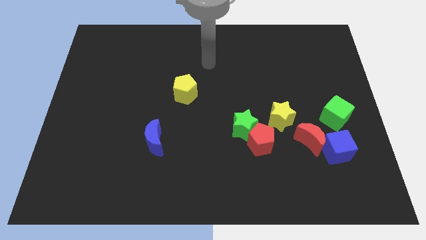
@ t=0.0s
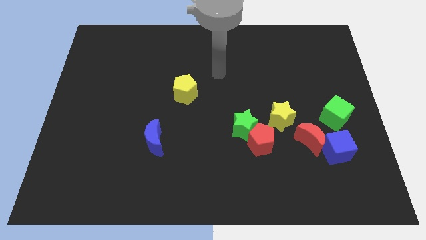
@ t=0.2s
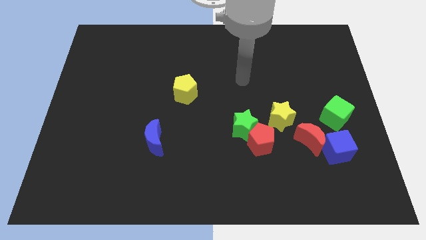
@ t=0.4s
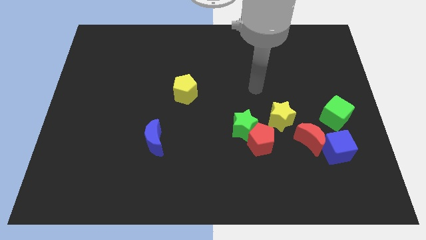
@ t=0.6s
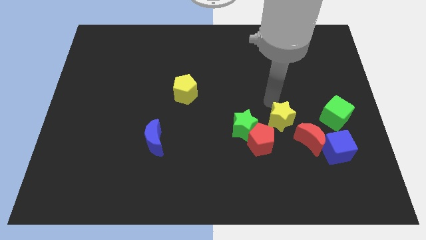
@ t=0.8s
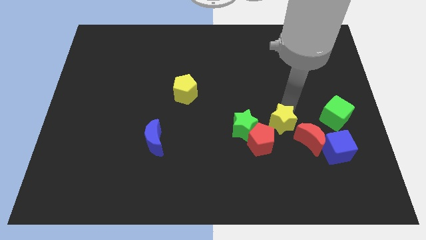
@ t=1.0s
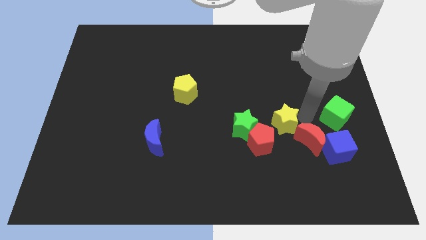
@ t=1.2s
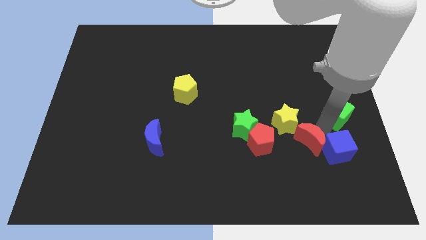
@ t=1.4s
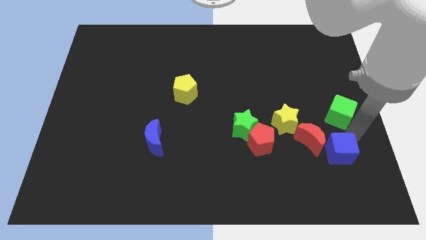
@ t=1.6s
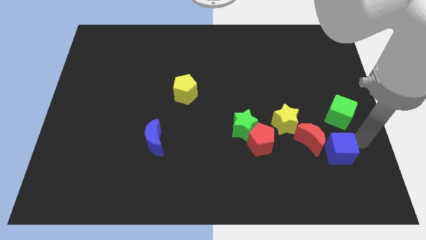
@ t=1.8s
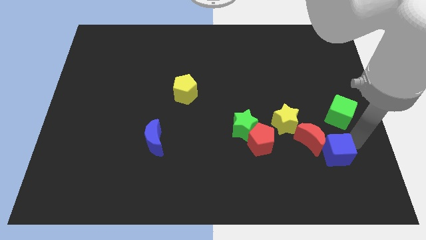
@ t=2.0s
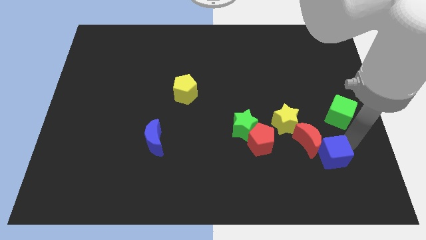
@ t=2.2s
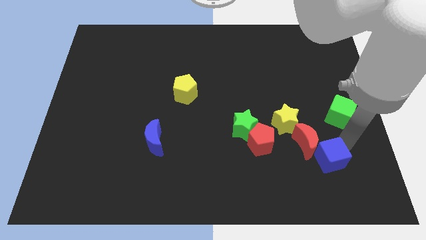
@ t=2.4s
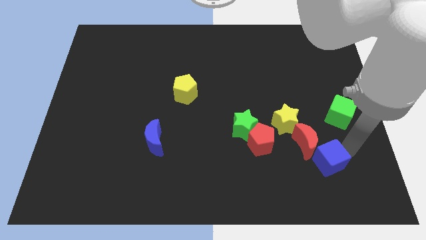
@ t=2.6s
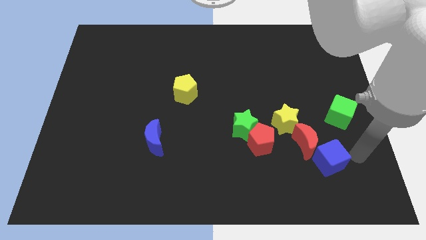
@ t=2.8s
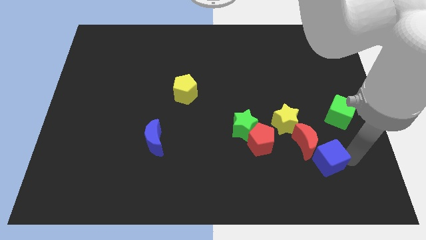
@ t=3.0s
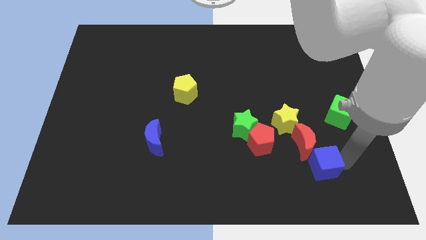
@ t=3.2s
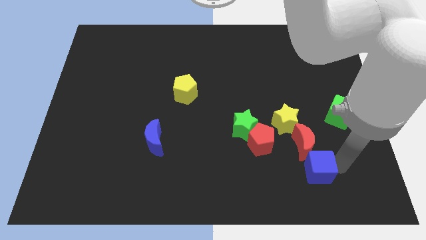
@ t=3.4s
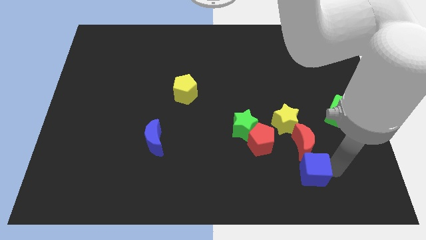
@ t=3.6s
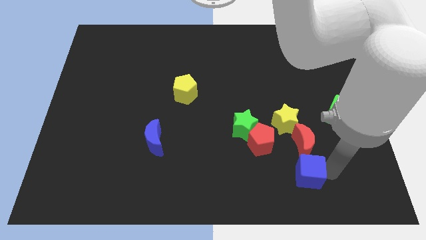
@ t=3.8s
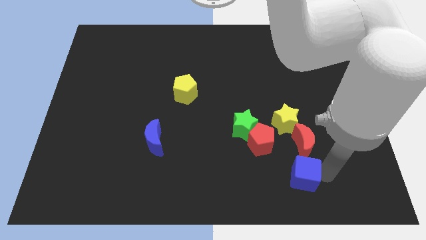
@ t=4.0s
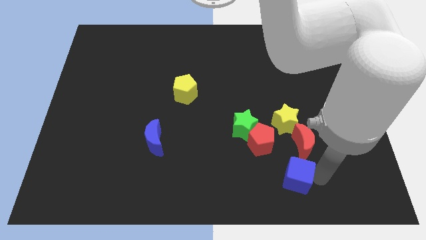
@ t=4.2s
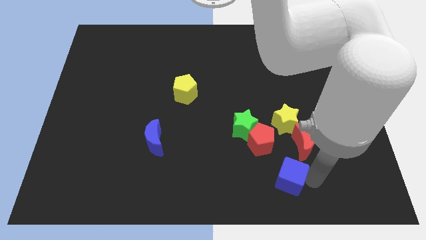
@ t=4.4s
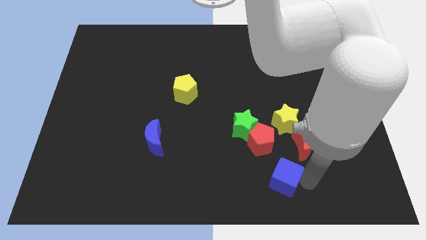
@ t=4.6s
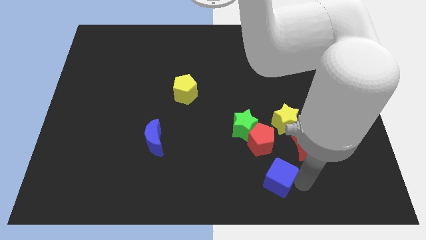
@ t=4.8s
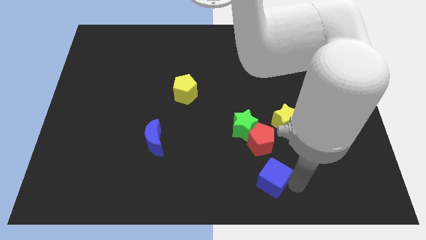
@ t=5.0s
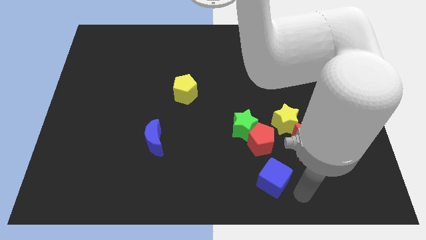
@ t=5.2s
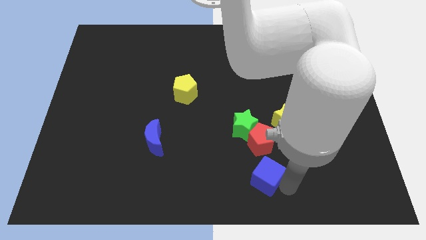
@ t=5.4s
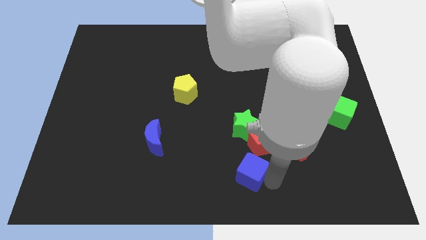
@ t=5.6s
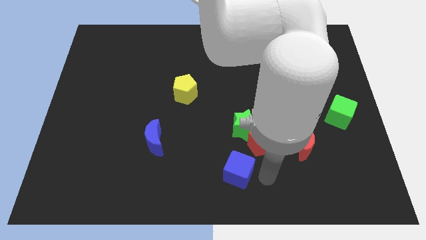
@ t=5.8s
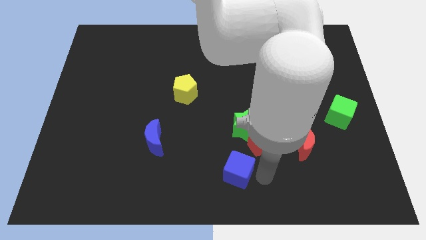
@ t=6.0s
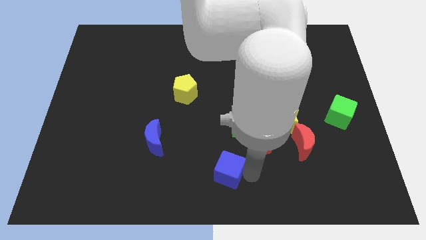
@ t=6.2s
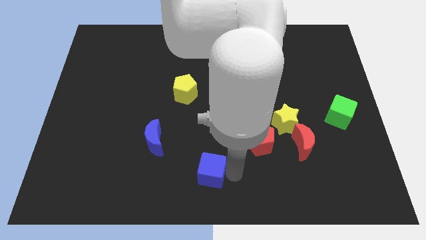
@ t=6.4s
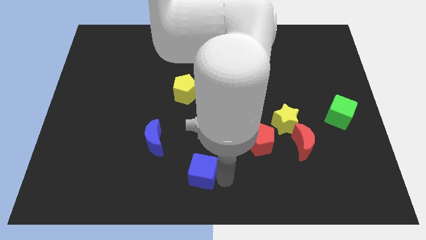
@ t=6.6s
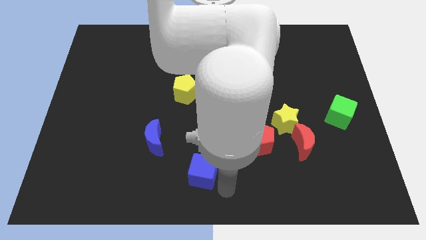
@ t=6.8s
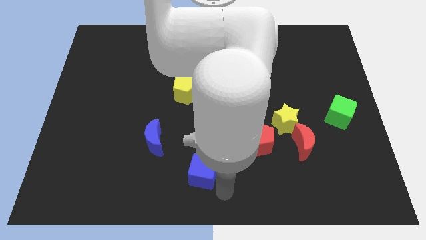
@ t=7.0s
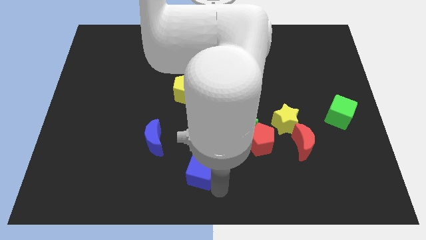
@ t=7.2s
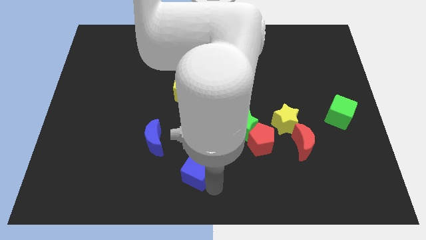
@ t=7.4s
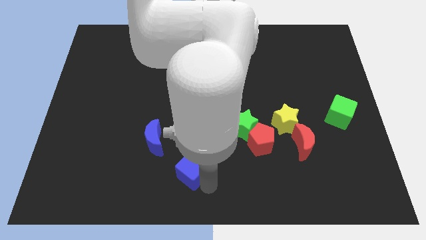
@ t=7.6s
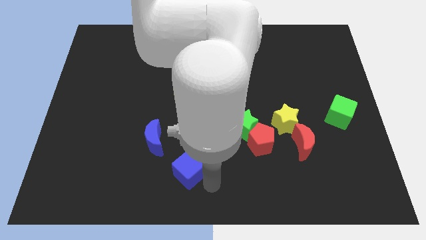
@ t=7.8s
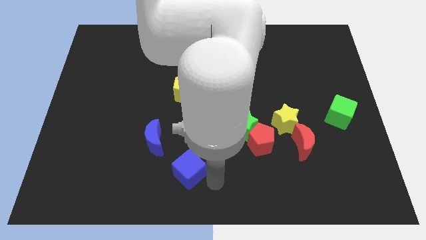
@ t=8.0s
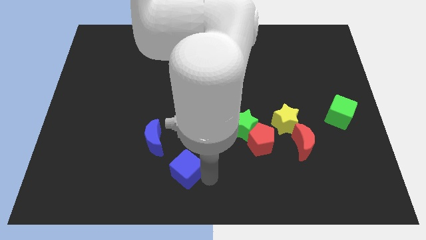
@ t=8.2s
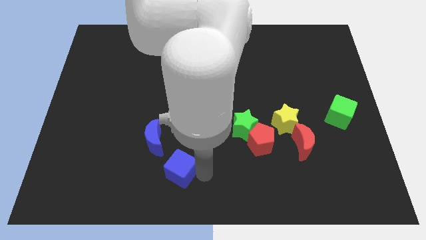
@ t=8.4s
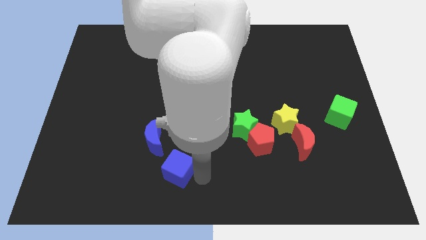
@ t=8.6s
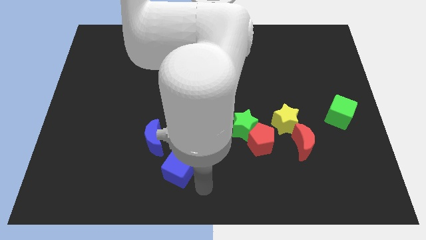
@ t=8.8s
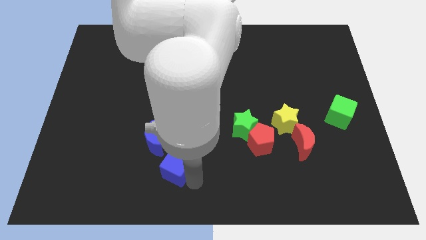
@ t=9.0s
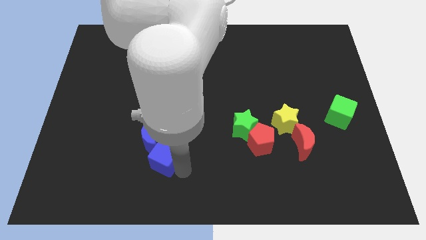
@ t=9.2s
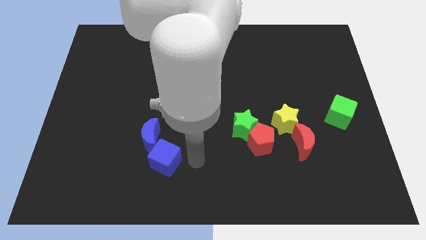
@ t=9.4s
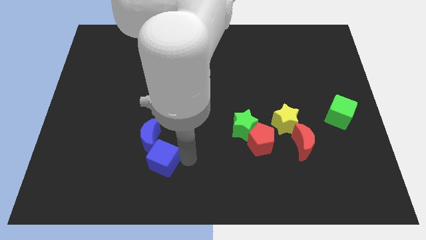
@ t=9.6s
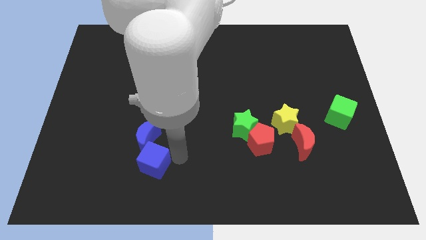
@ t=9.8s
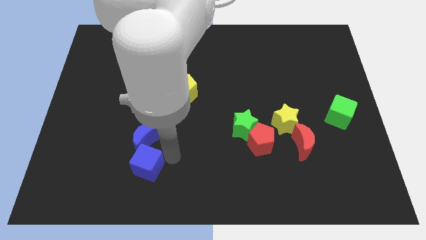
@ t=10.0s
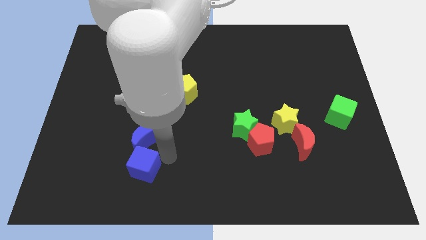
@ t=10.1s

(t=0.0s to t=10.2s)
push the blue cube to the bottom left side of the blue moon

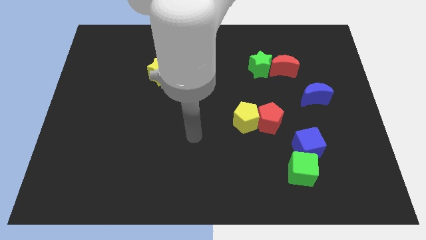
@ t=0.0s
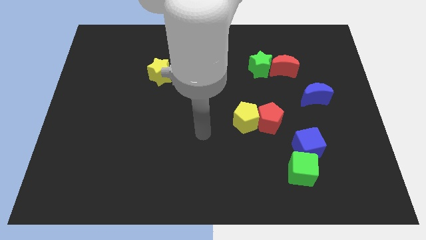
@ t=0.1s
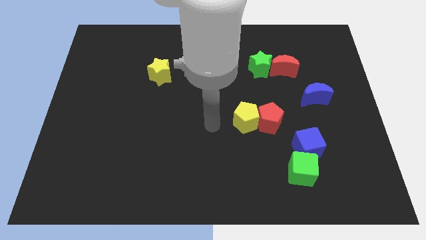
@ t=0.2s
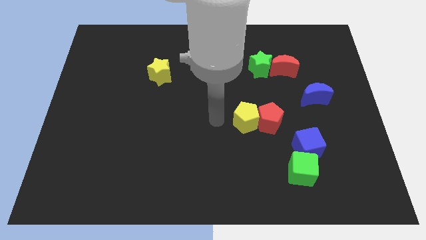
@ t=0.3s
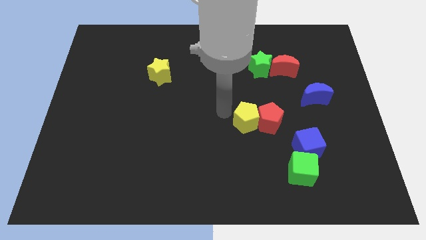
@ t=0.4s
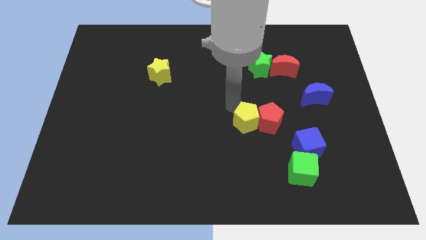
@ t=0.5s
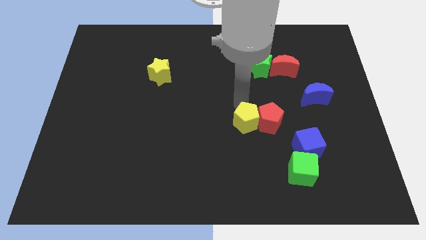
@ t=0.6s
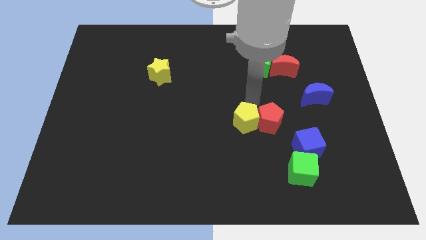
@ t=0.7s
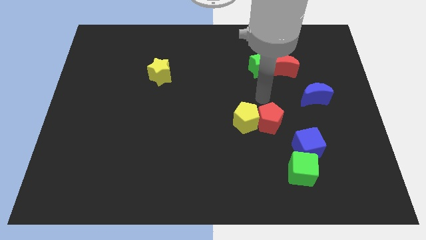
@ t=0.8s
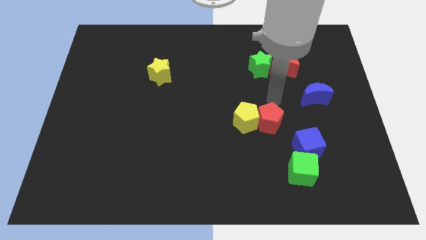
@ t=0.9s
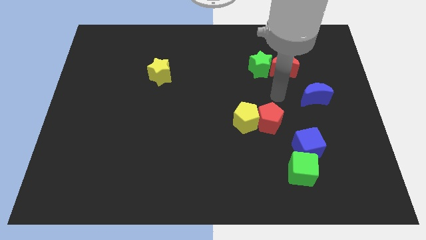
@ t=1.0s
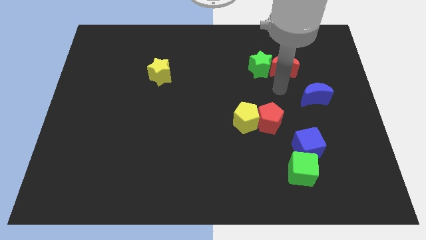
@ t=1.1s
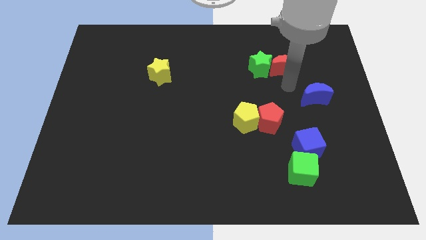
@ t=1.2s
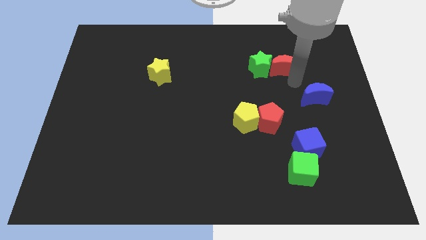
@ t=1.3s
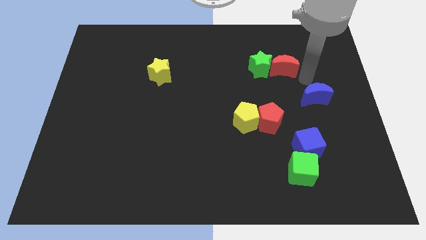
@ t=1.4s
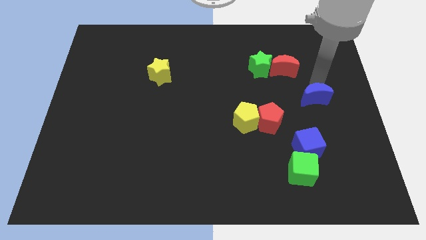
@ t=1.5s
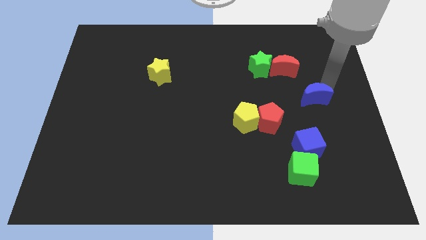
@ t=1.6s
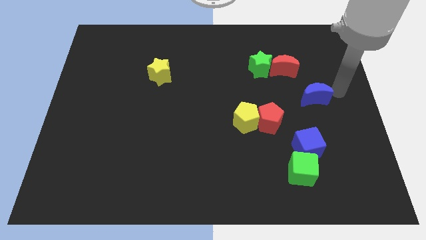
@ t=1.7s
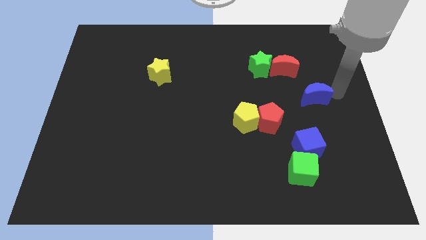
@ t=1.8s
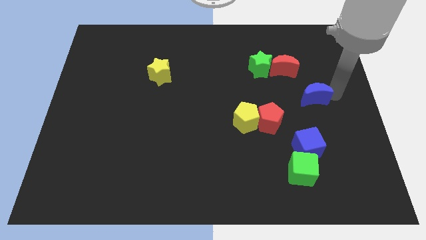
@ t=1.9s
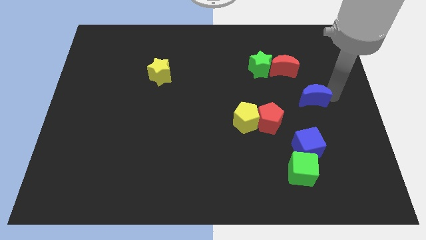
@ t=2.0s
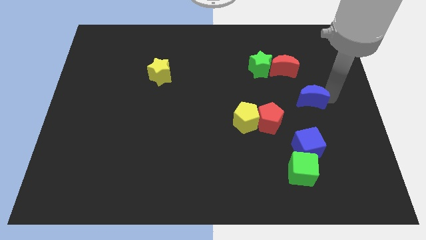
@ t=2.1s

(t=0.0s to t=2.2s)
push the blue moon to the top right of the red pentagon
